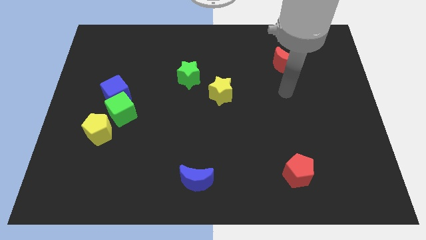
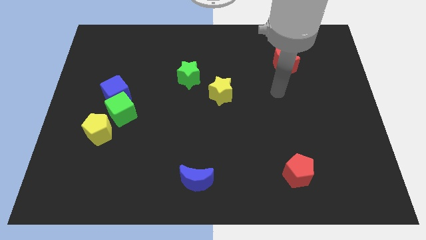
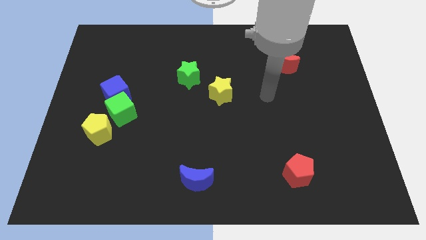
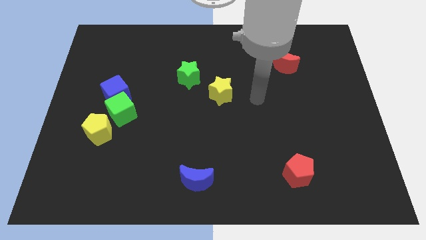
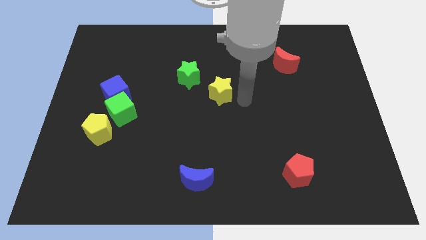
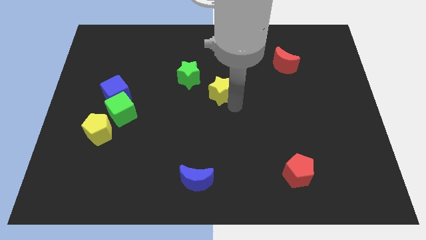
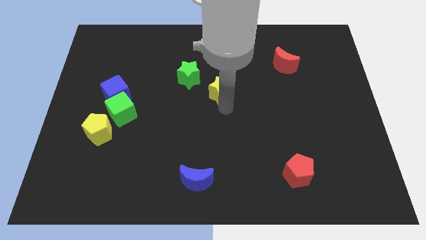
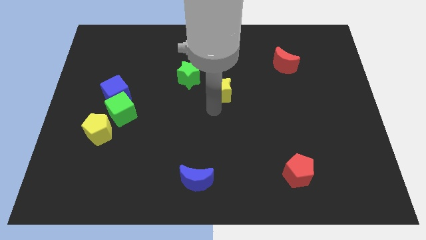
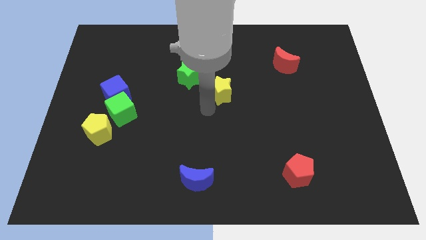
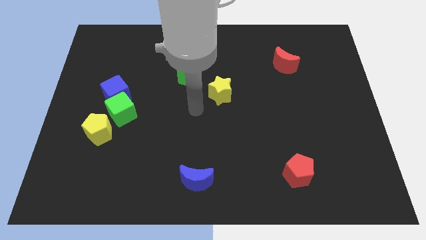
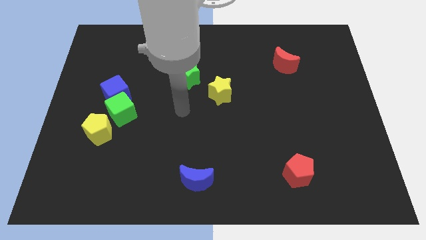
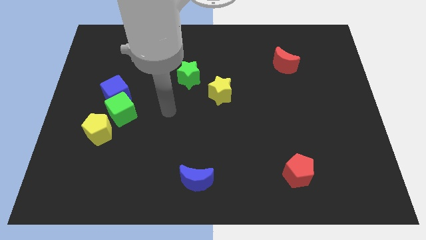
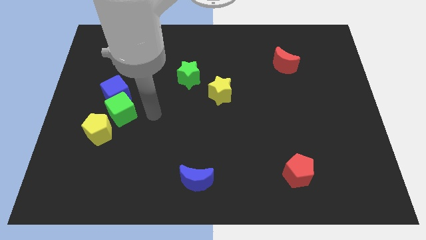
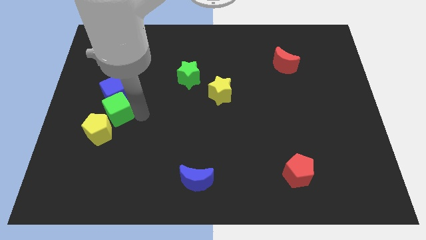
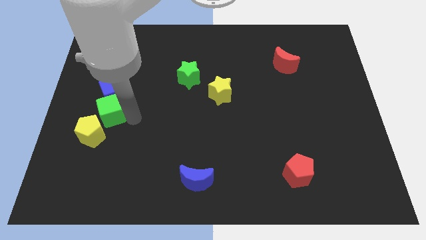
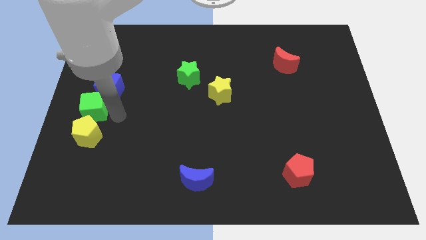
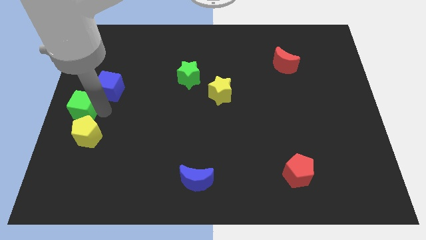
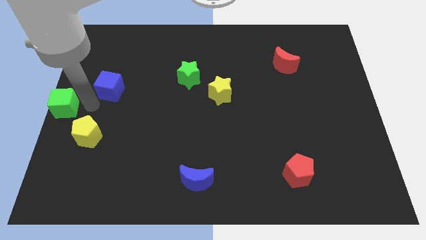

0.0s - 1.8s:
move the blue cube away from the green cube

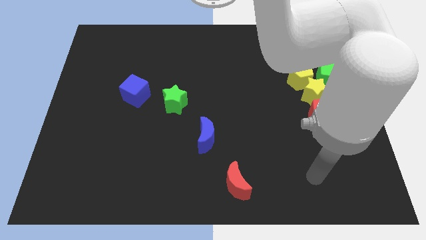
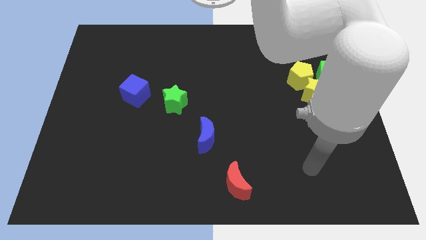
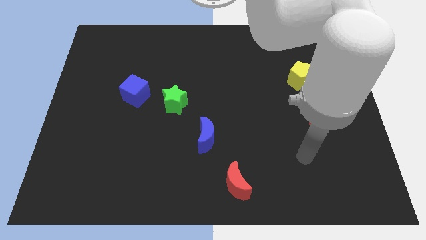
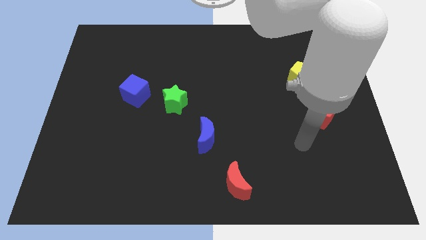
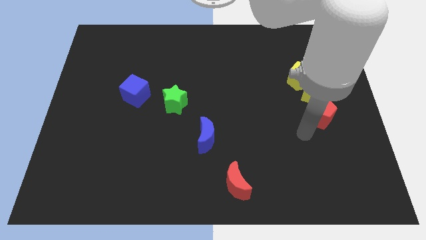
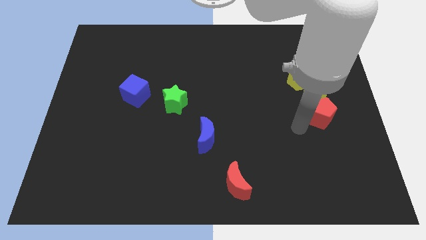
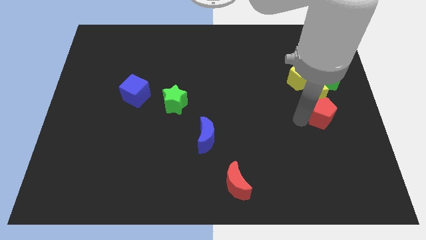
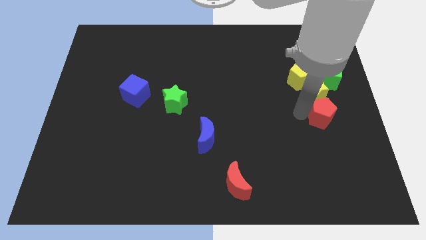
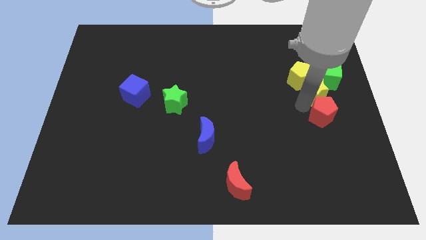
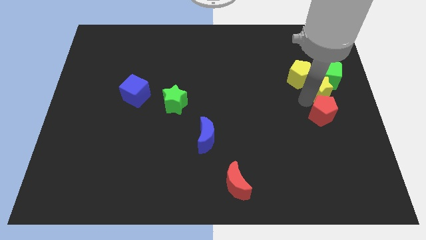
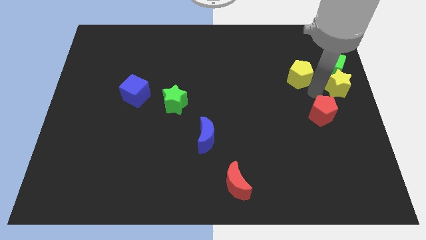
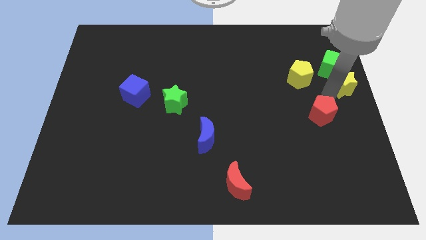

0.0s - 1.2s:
move the red pentagon away from the yellow star

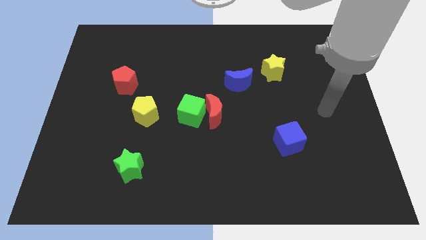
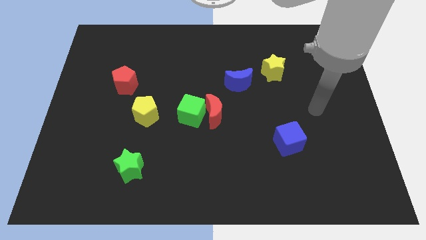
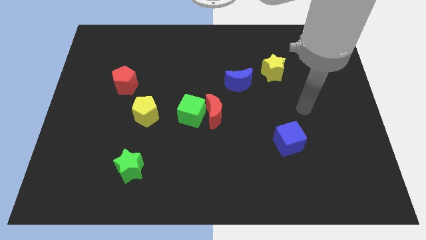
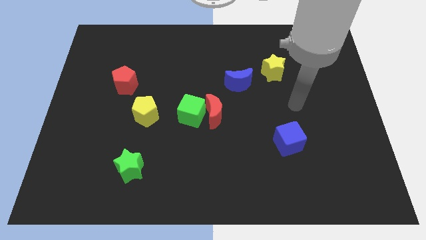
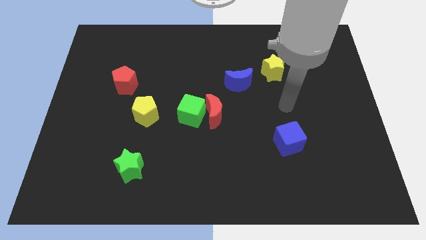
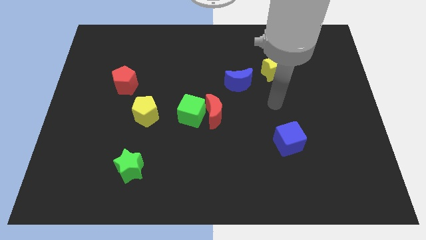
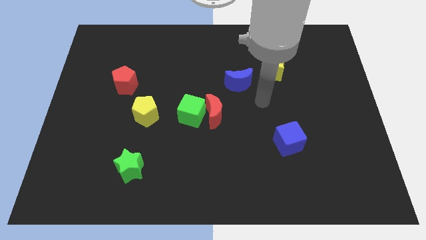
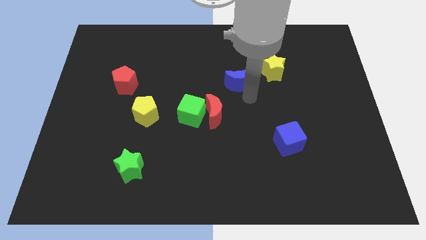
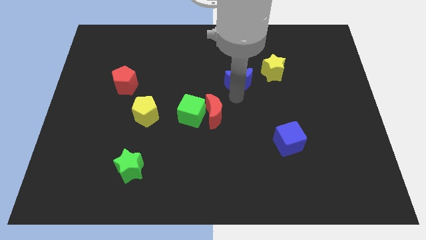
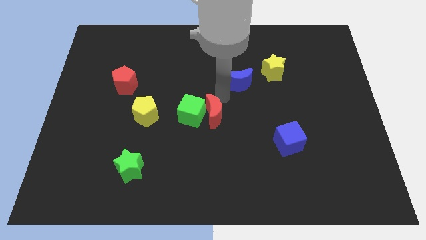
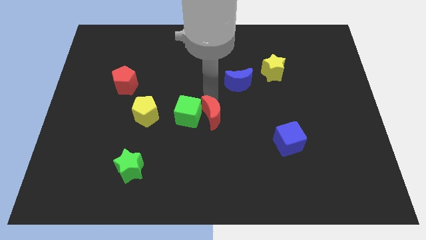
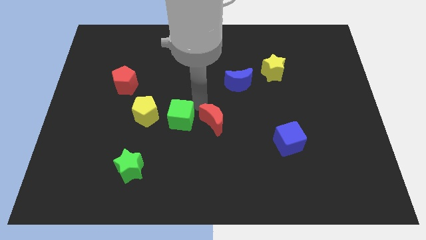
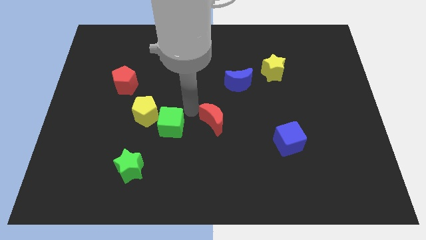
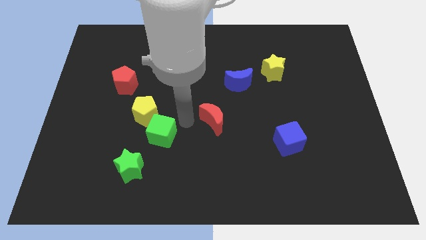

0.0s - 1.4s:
separate the red moon from the green cube

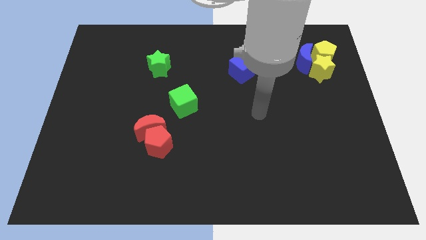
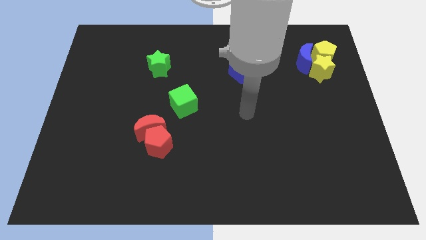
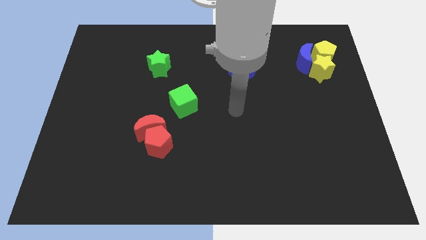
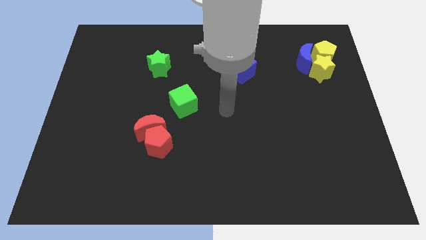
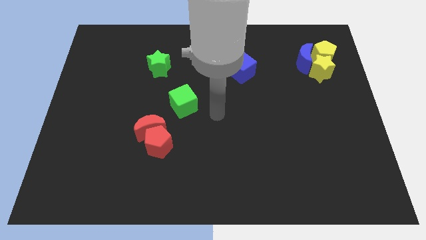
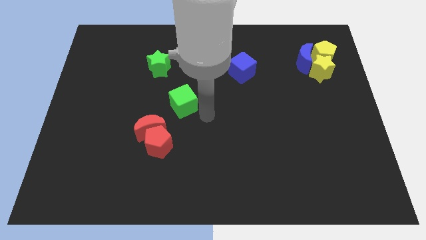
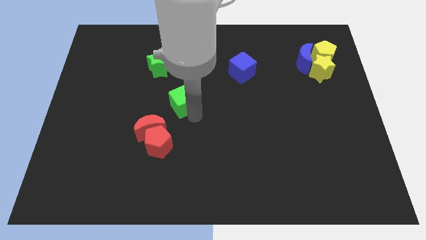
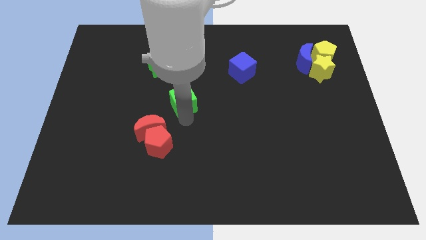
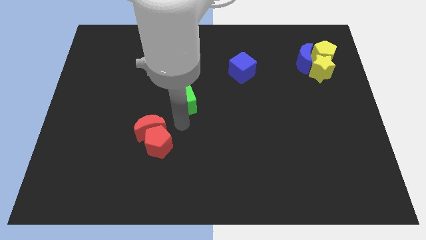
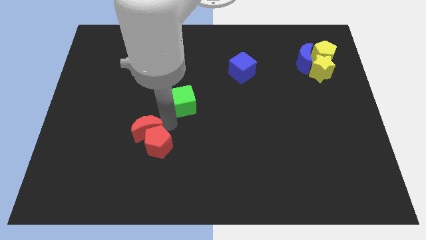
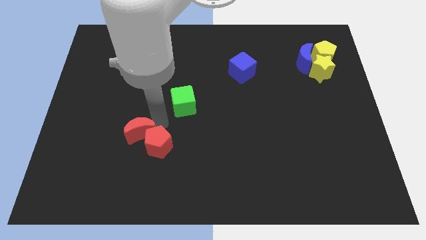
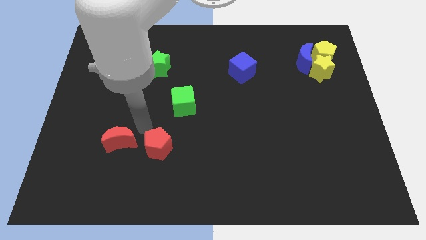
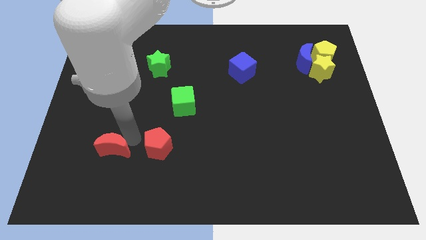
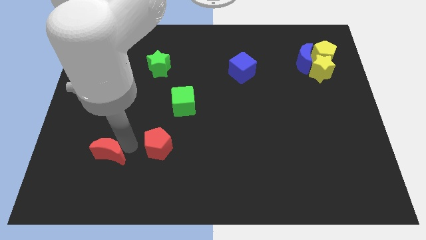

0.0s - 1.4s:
move the red pentagon away from the red moon

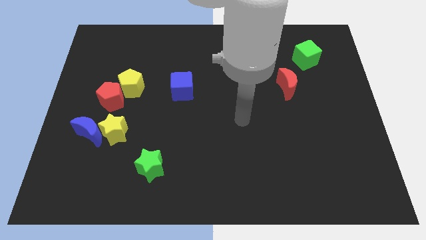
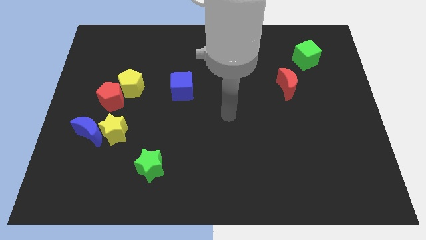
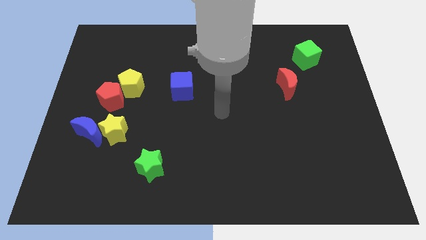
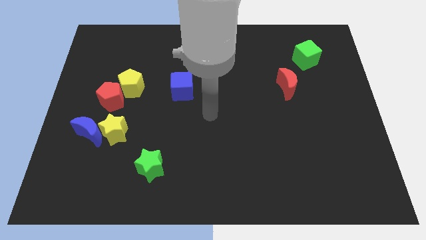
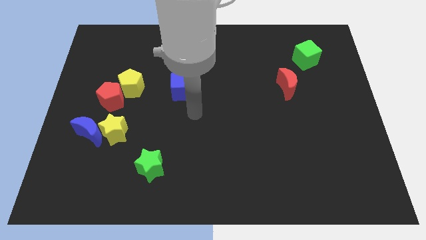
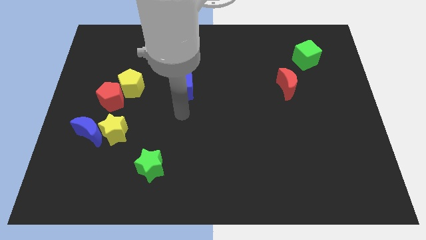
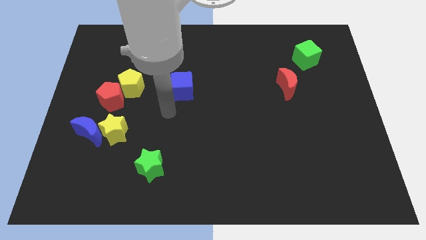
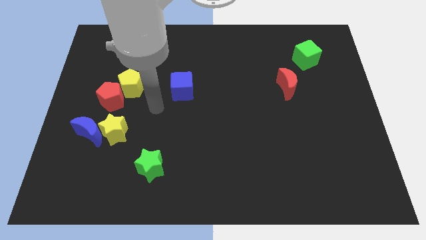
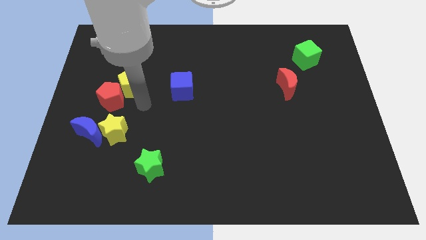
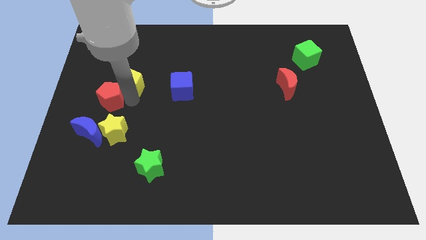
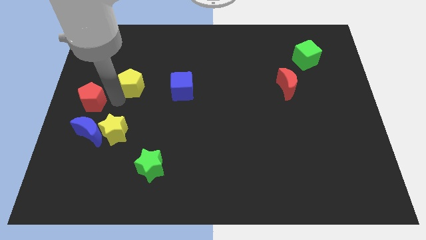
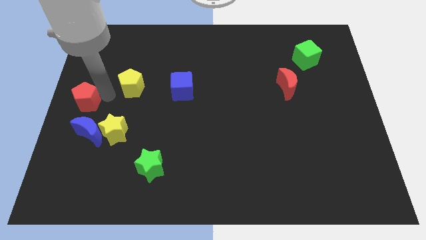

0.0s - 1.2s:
move the yellow pentagon away from the red pentagon

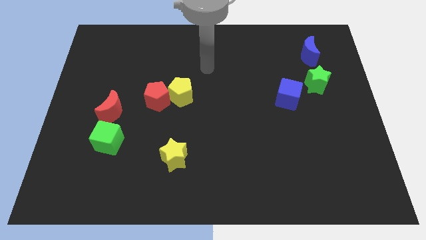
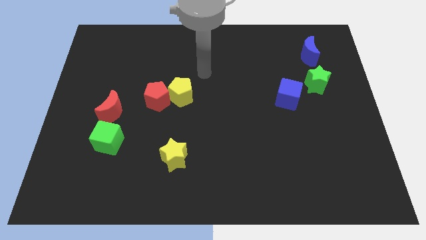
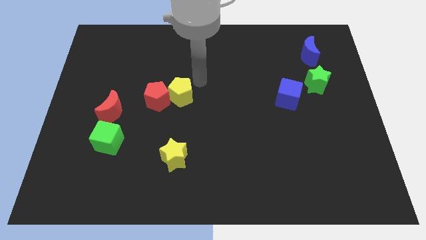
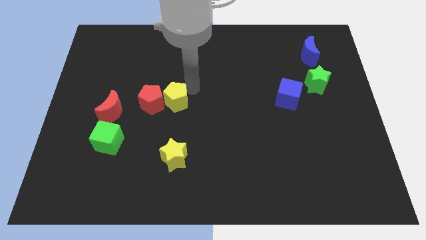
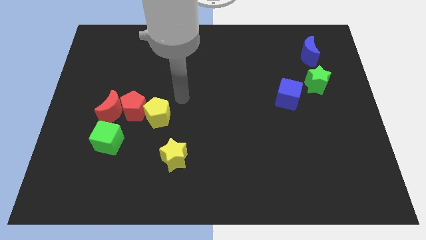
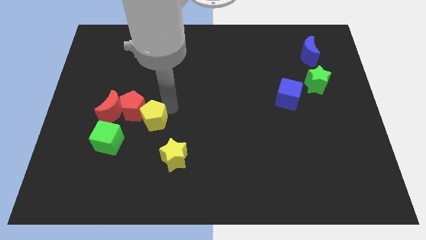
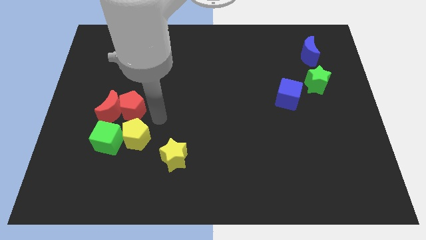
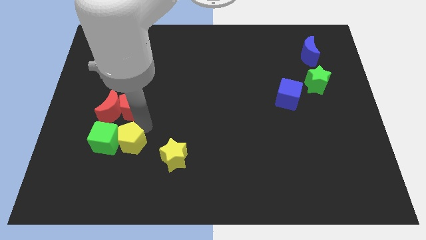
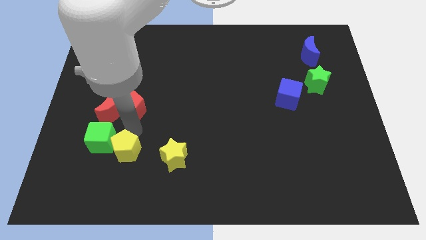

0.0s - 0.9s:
pull the red pentagon apart from the yellow pentagon

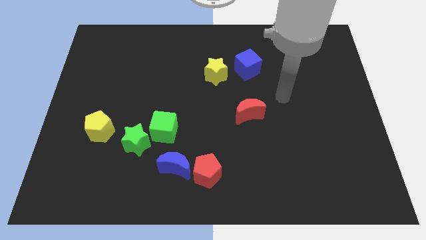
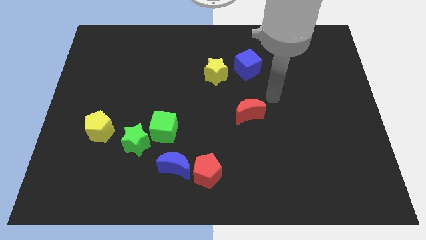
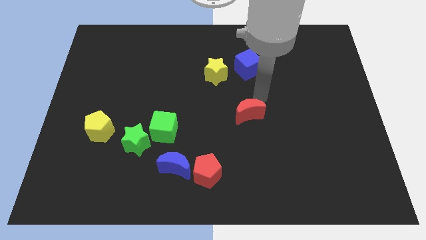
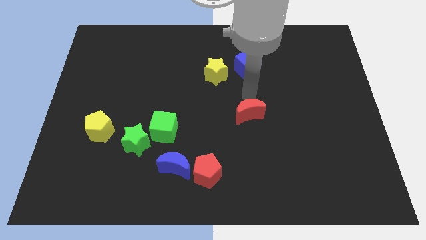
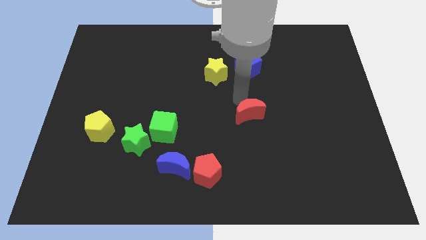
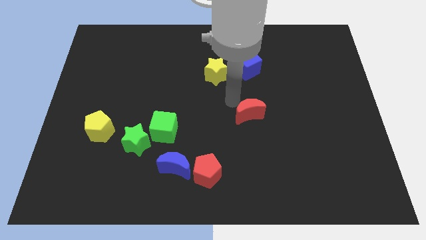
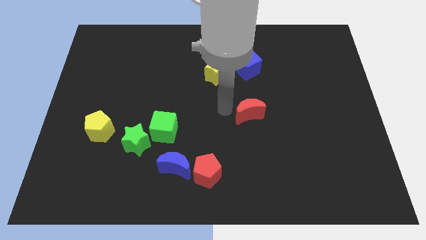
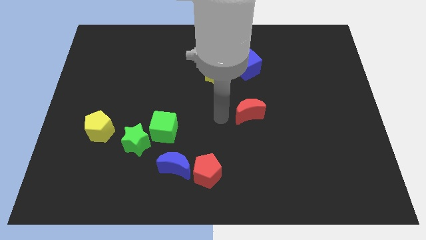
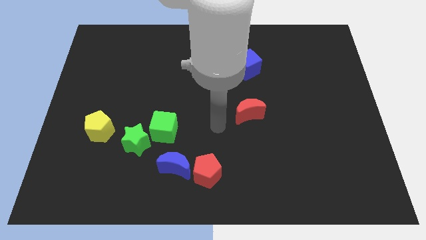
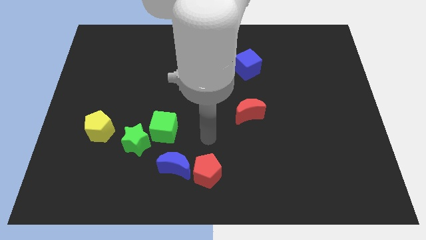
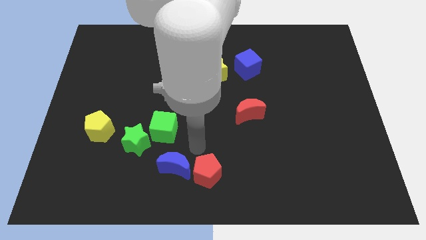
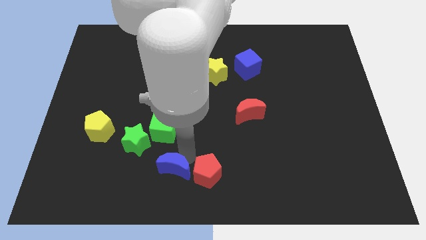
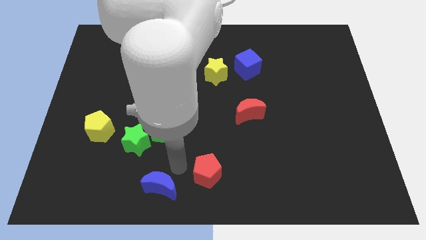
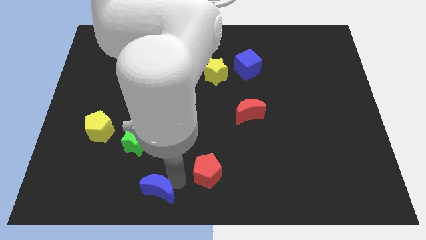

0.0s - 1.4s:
pull the red pentagon apart from the blue moon
